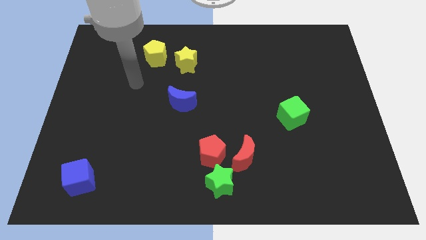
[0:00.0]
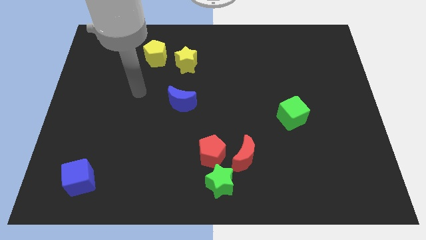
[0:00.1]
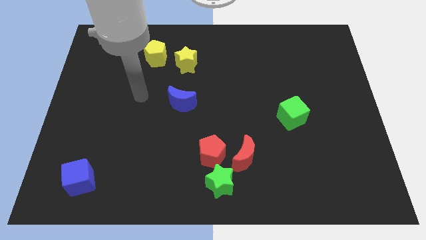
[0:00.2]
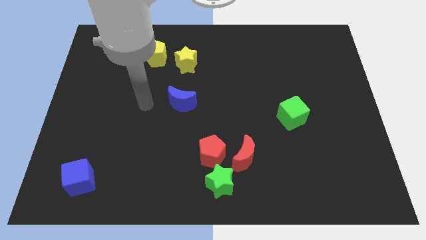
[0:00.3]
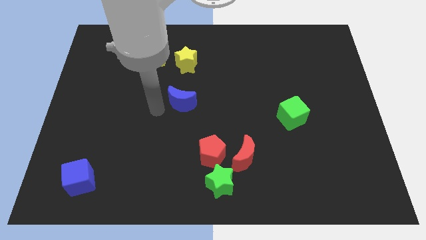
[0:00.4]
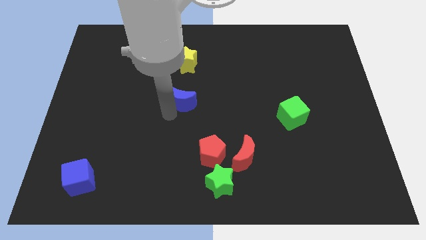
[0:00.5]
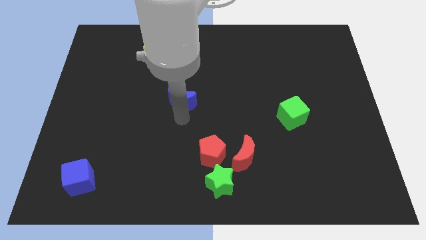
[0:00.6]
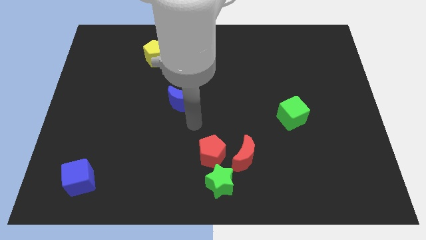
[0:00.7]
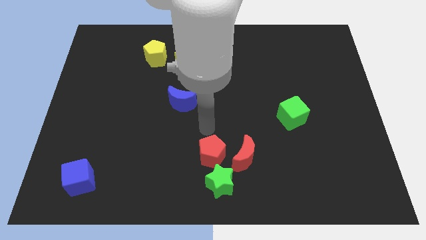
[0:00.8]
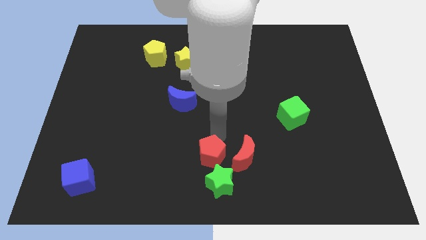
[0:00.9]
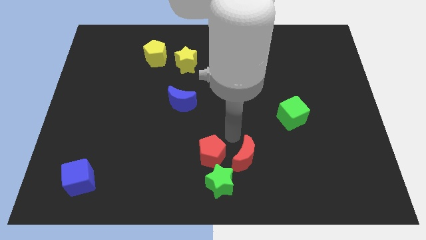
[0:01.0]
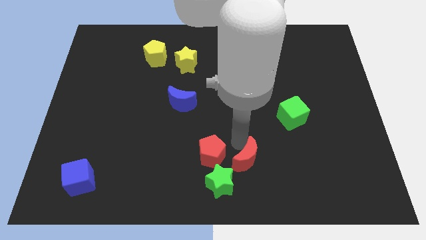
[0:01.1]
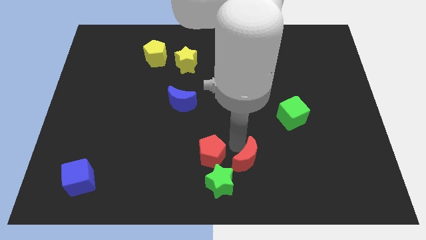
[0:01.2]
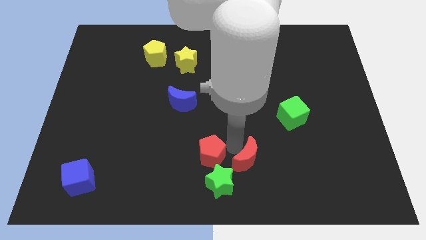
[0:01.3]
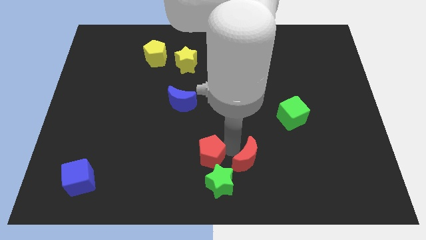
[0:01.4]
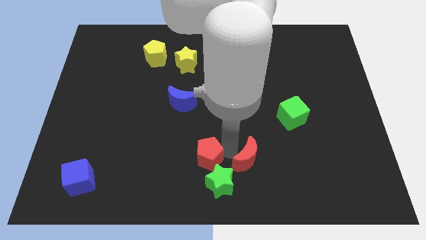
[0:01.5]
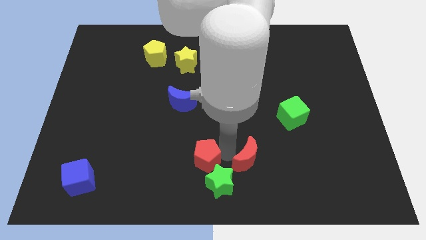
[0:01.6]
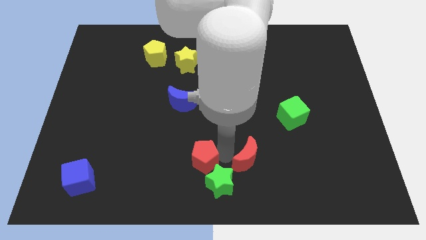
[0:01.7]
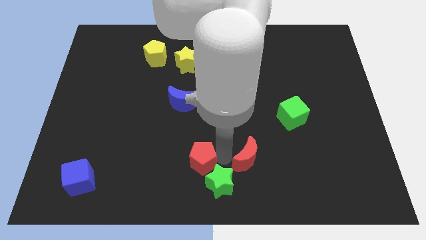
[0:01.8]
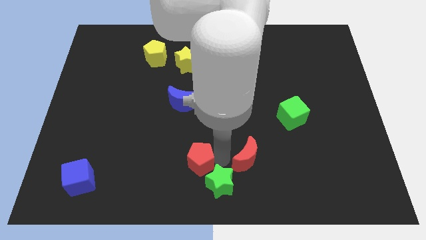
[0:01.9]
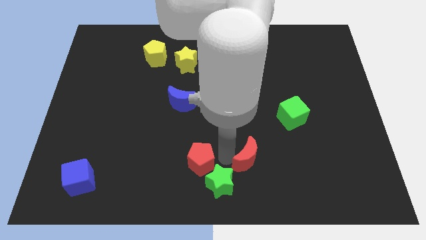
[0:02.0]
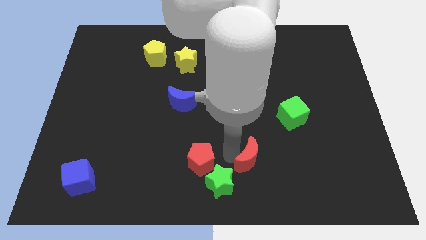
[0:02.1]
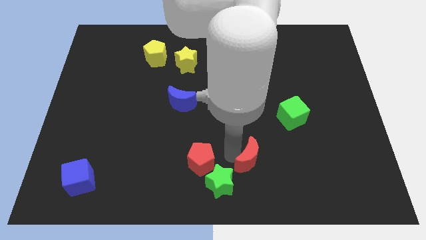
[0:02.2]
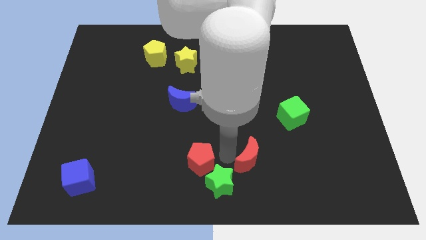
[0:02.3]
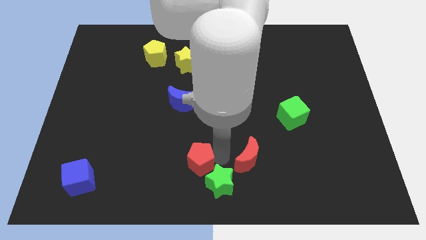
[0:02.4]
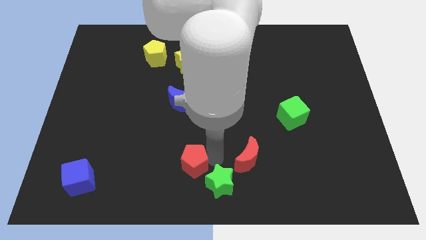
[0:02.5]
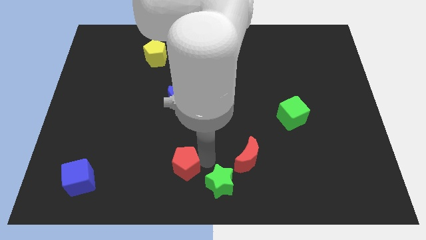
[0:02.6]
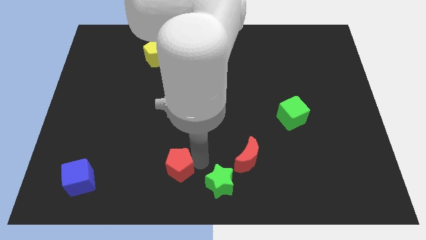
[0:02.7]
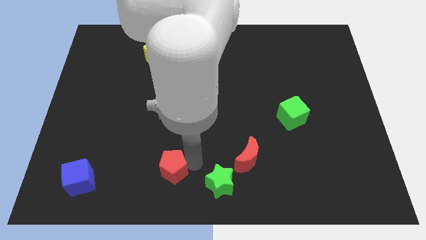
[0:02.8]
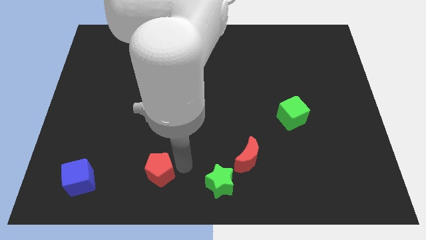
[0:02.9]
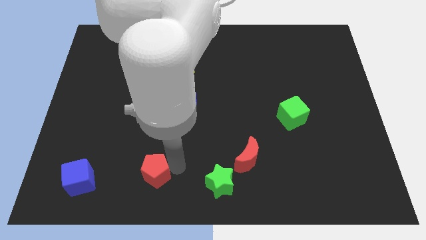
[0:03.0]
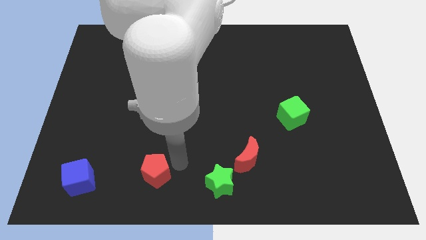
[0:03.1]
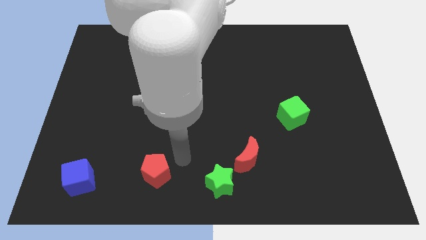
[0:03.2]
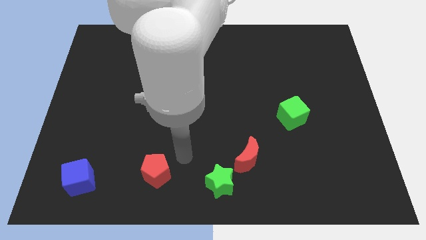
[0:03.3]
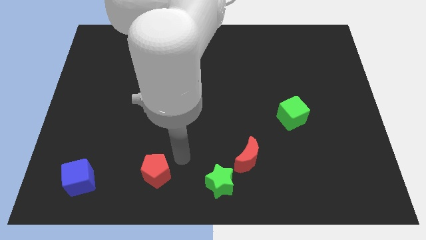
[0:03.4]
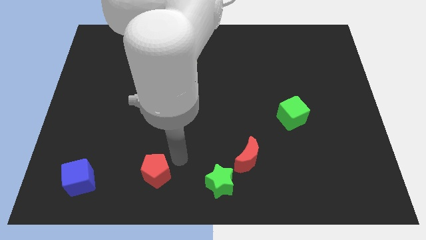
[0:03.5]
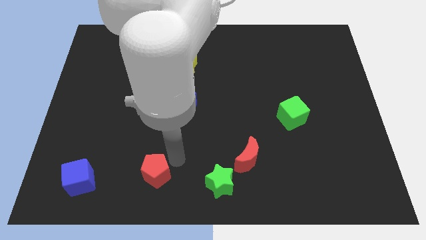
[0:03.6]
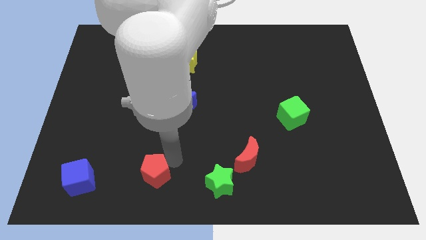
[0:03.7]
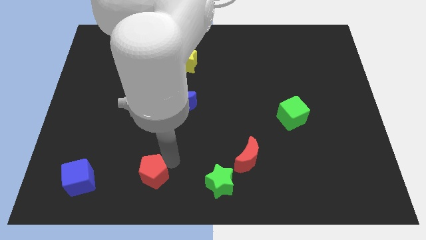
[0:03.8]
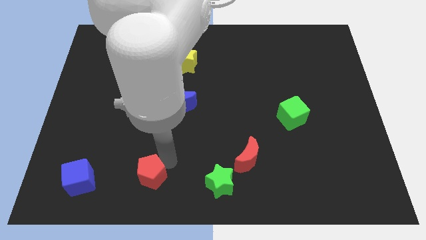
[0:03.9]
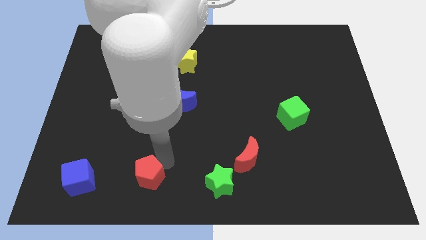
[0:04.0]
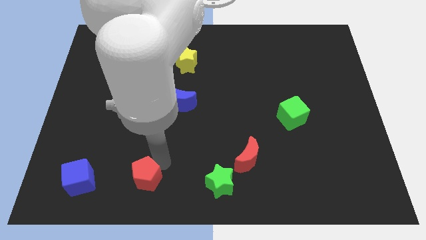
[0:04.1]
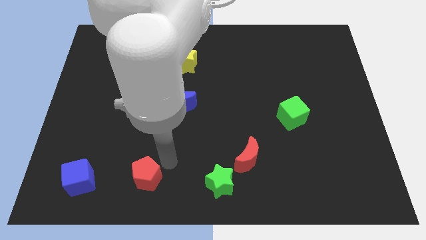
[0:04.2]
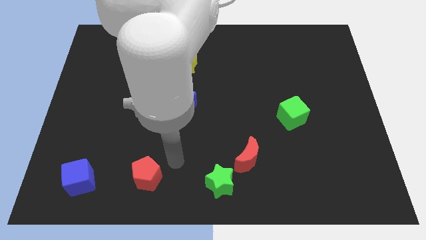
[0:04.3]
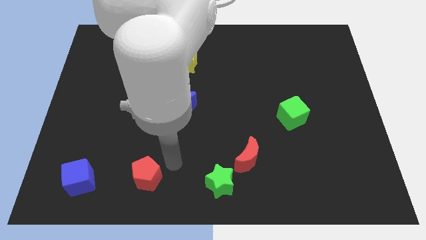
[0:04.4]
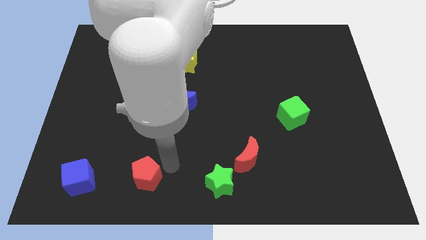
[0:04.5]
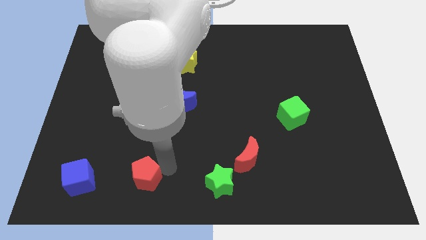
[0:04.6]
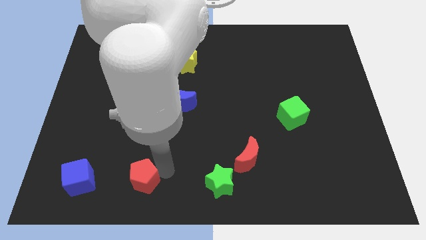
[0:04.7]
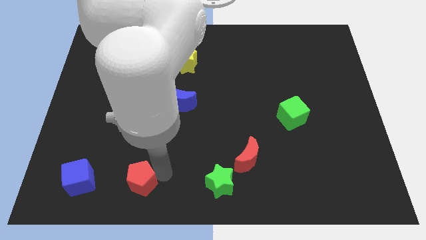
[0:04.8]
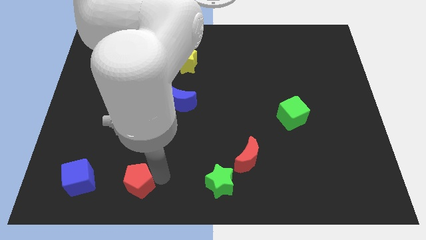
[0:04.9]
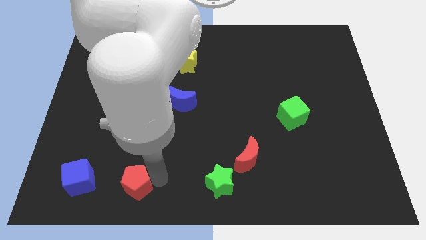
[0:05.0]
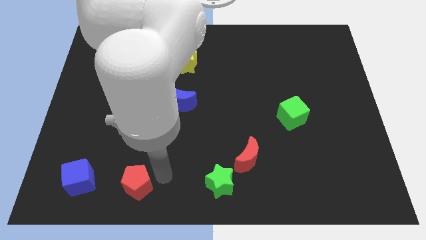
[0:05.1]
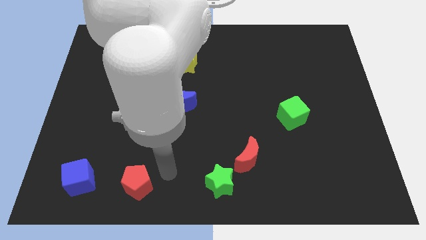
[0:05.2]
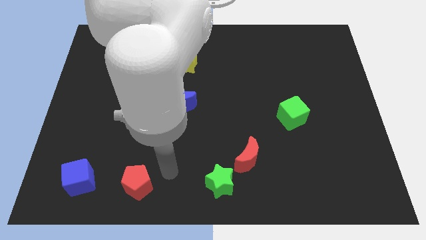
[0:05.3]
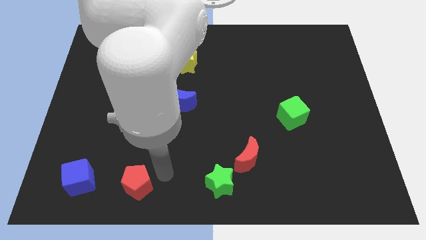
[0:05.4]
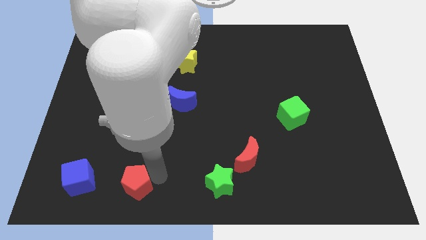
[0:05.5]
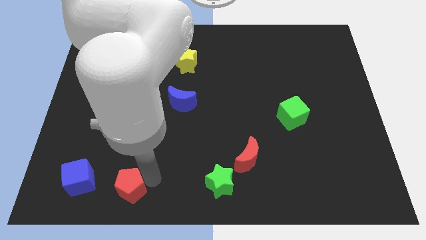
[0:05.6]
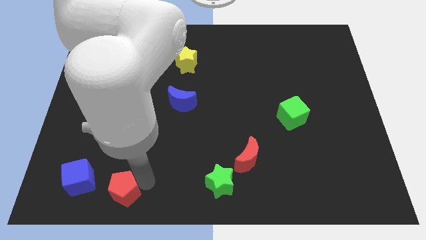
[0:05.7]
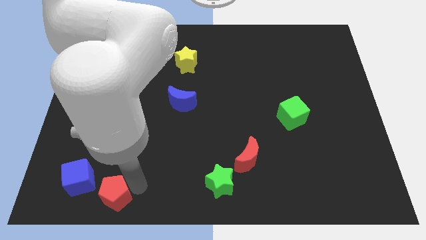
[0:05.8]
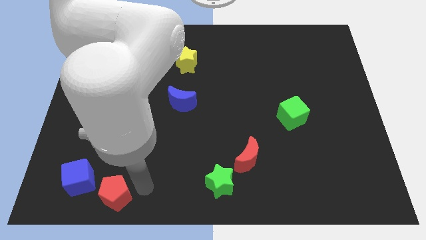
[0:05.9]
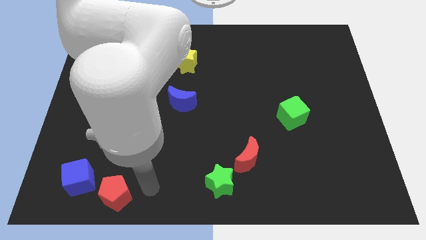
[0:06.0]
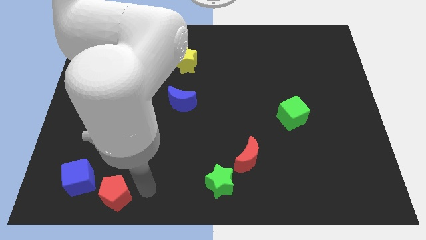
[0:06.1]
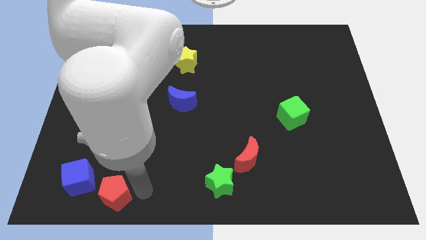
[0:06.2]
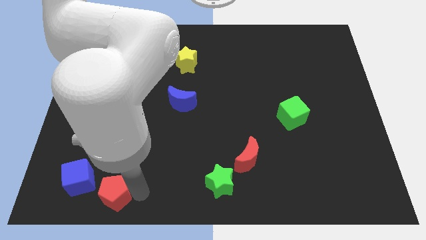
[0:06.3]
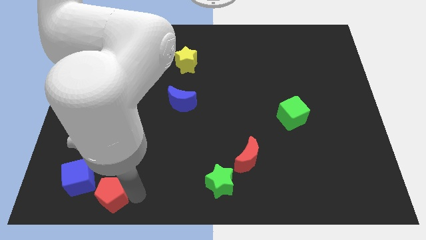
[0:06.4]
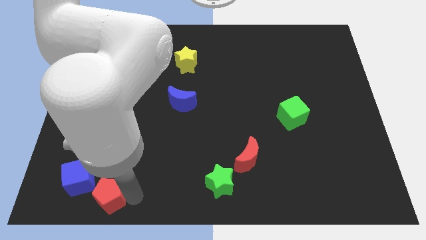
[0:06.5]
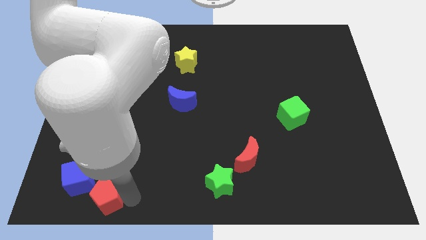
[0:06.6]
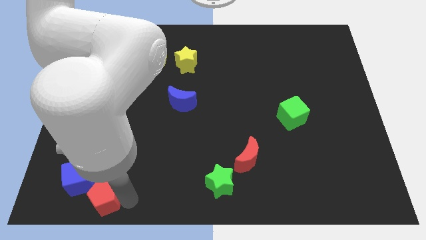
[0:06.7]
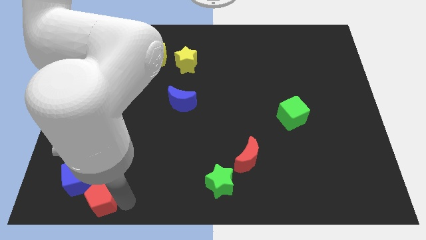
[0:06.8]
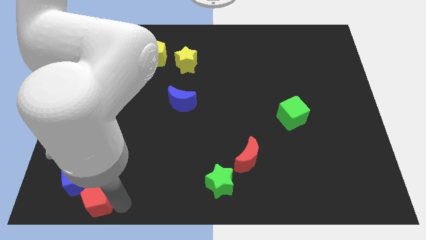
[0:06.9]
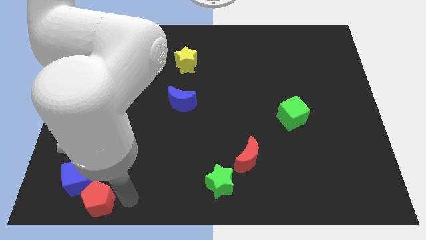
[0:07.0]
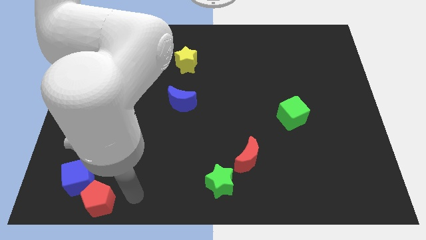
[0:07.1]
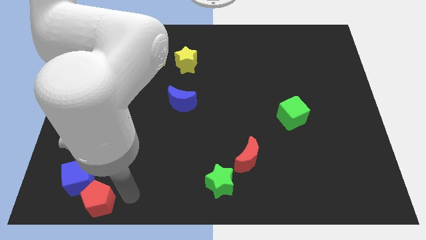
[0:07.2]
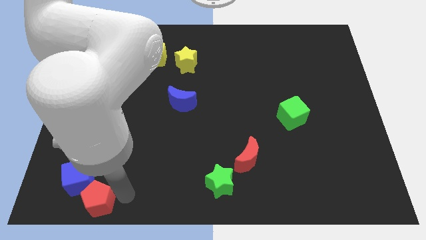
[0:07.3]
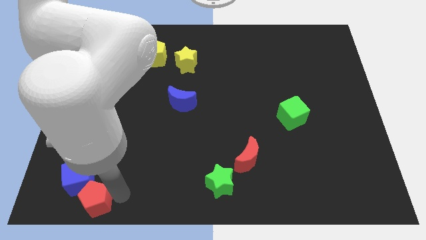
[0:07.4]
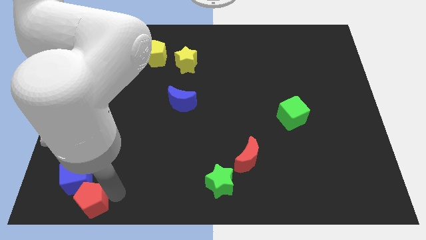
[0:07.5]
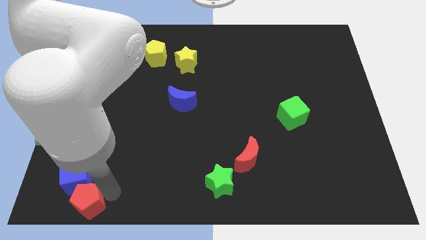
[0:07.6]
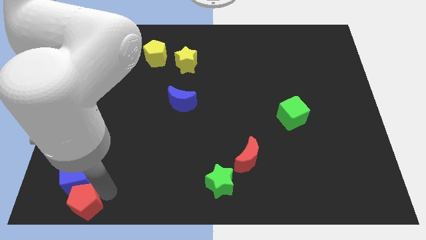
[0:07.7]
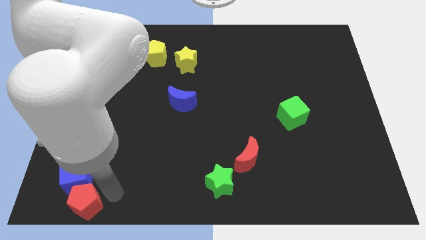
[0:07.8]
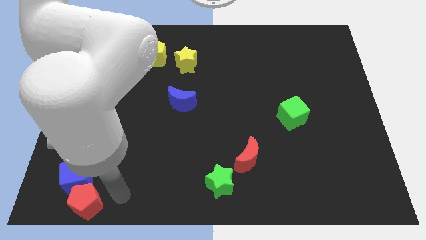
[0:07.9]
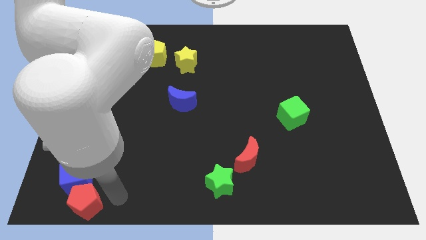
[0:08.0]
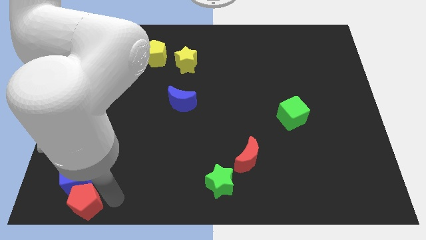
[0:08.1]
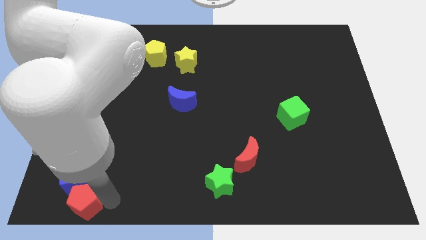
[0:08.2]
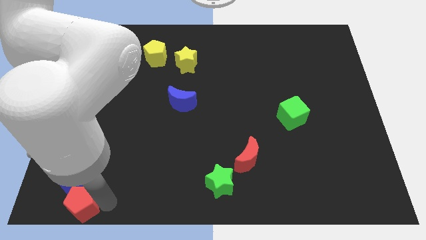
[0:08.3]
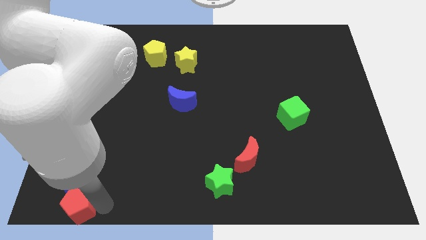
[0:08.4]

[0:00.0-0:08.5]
move the red pentagon to the lower left corner
